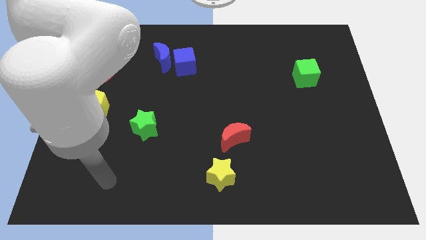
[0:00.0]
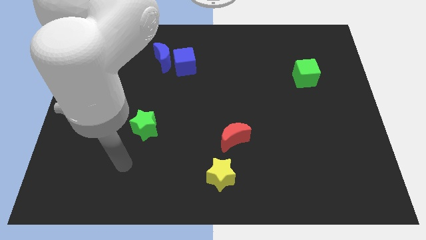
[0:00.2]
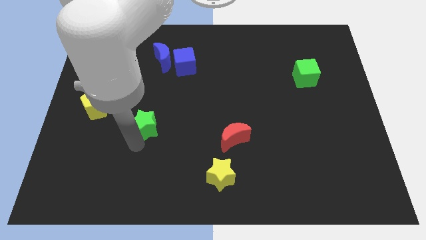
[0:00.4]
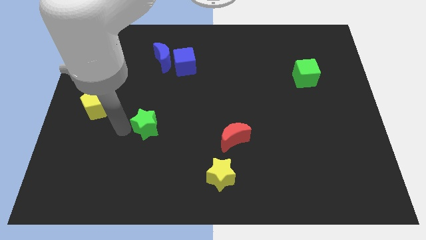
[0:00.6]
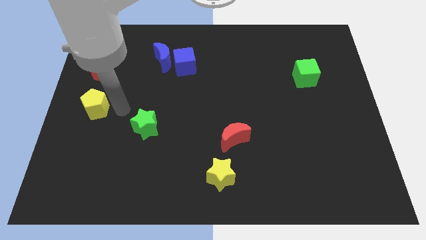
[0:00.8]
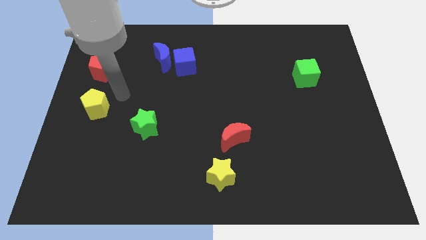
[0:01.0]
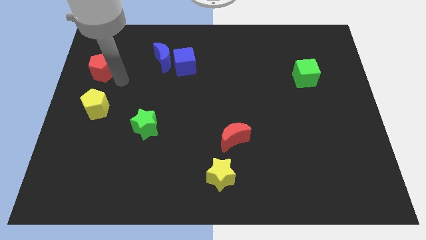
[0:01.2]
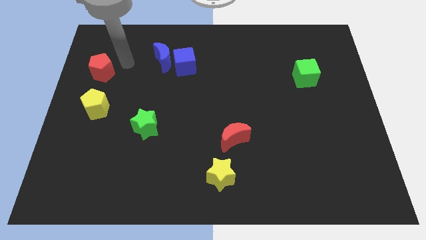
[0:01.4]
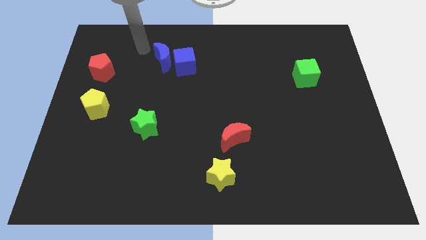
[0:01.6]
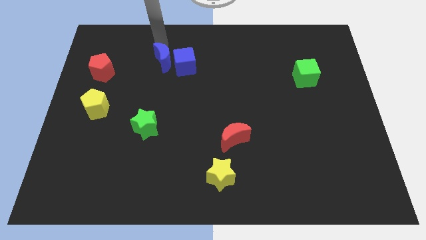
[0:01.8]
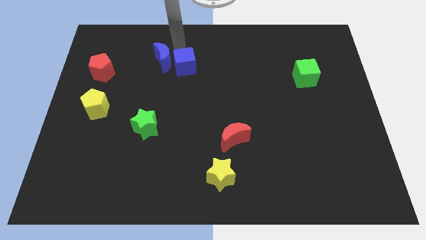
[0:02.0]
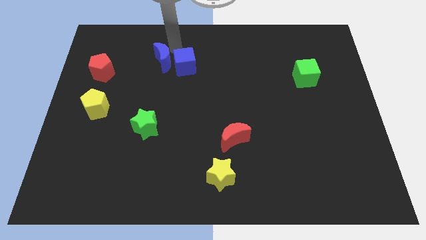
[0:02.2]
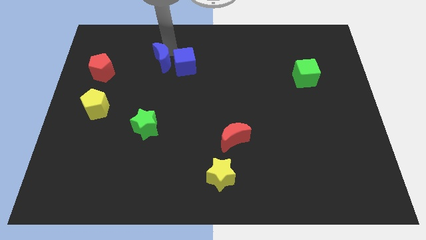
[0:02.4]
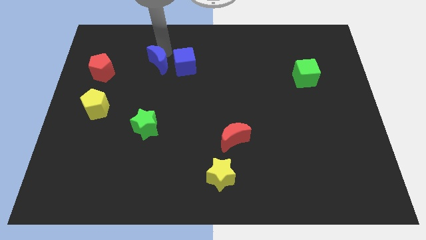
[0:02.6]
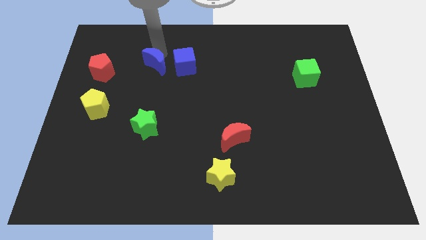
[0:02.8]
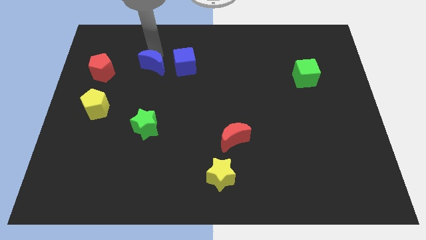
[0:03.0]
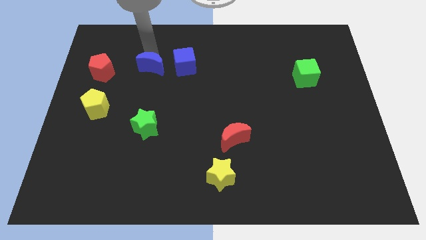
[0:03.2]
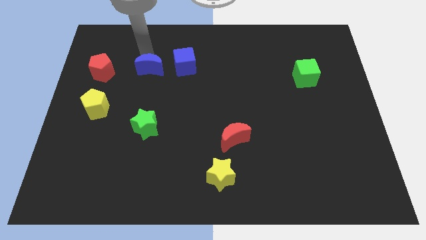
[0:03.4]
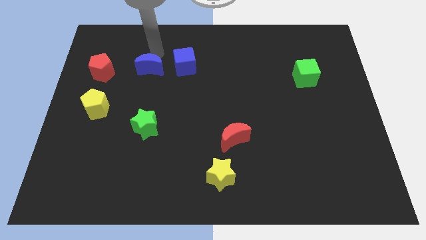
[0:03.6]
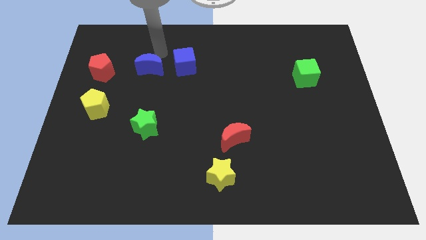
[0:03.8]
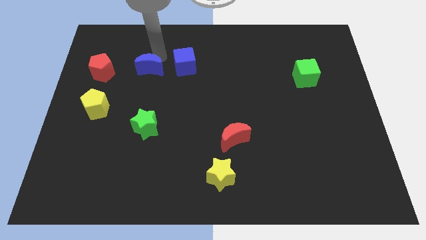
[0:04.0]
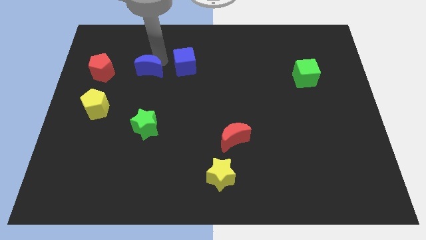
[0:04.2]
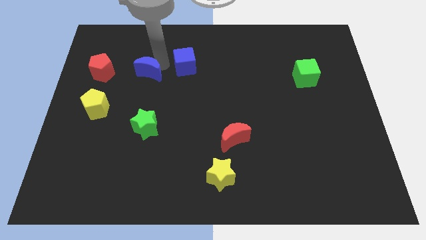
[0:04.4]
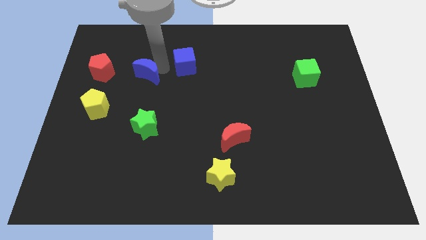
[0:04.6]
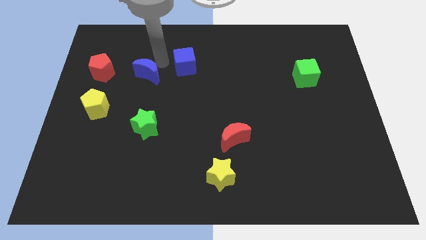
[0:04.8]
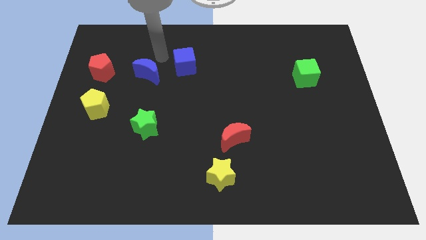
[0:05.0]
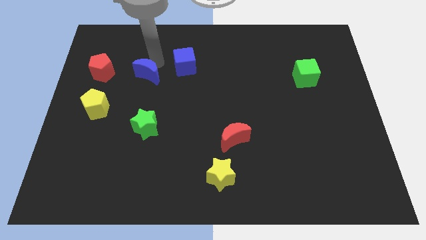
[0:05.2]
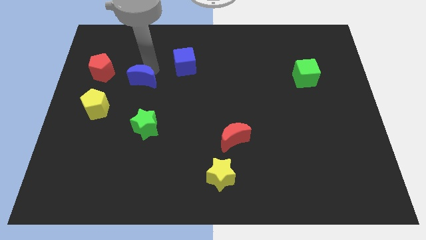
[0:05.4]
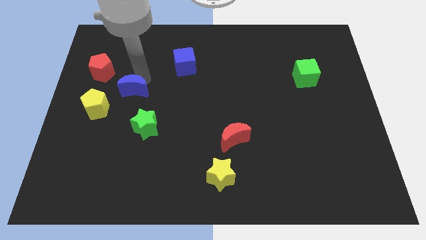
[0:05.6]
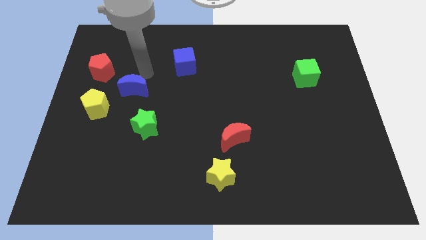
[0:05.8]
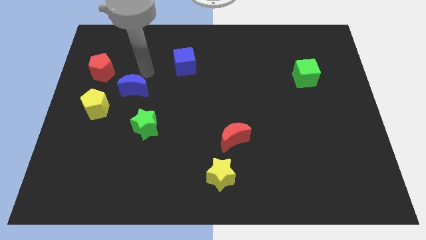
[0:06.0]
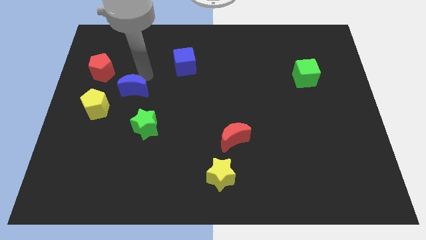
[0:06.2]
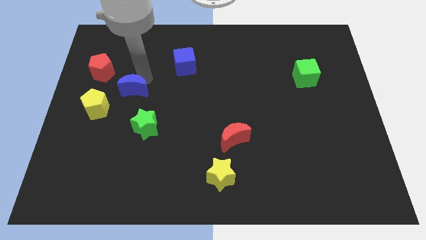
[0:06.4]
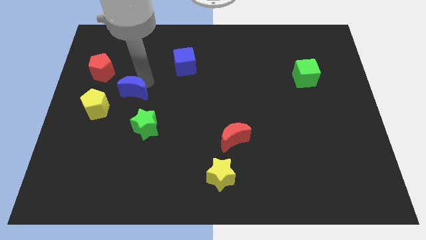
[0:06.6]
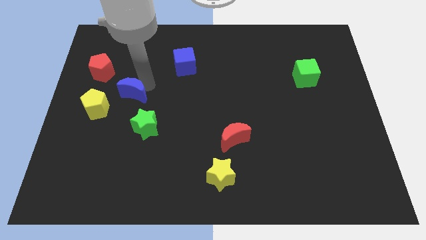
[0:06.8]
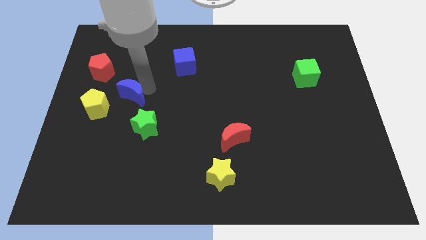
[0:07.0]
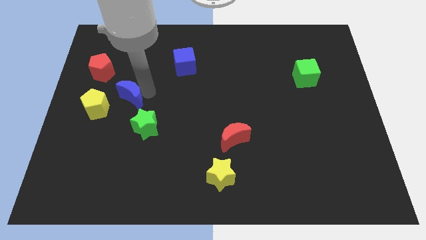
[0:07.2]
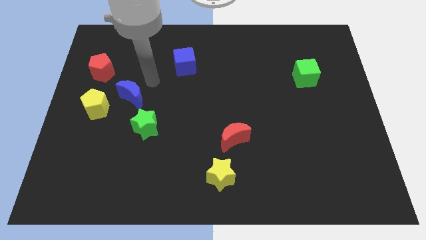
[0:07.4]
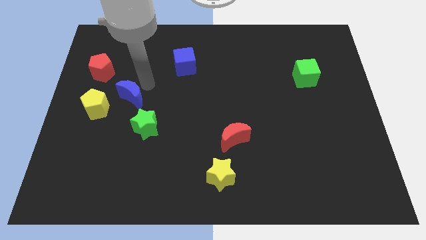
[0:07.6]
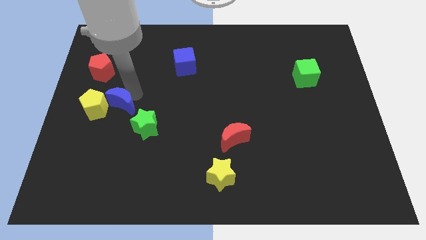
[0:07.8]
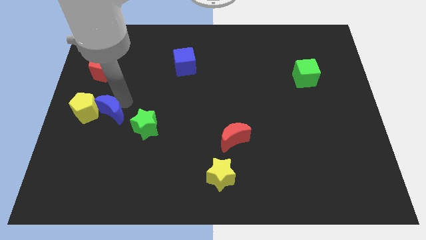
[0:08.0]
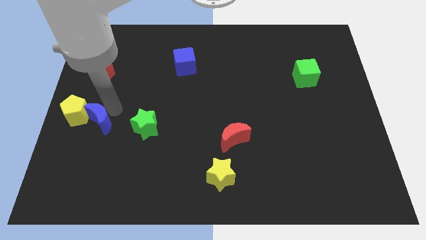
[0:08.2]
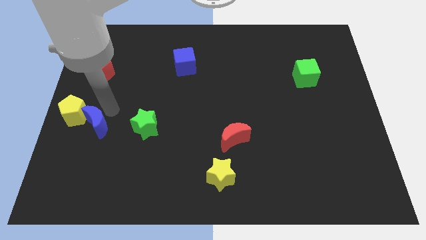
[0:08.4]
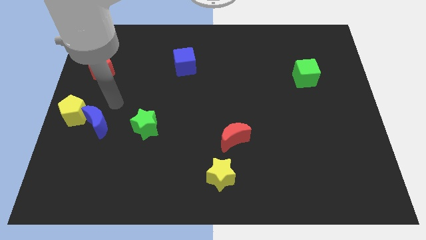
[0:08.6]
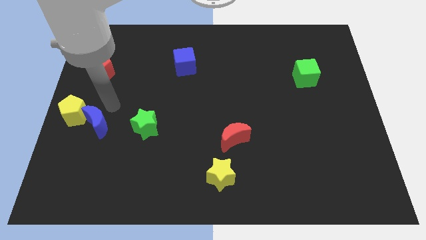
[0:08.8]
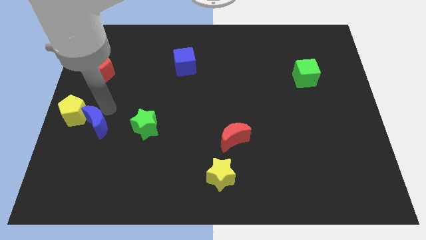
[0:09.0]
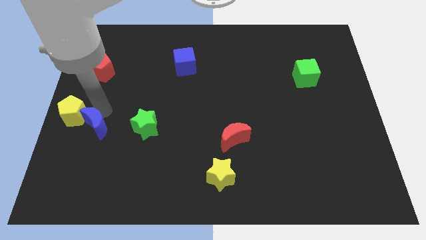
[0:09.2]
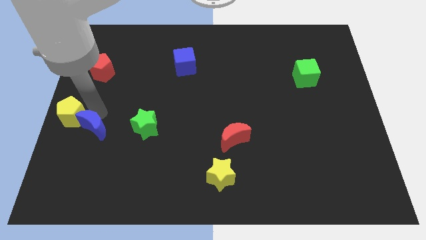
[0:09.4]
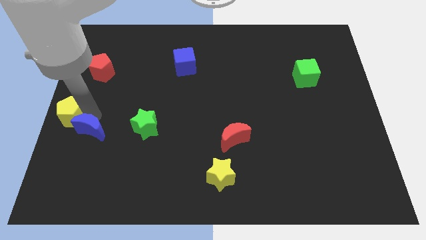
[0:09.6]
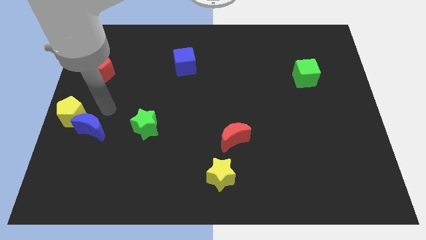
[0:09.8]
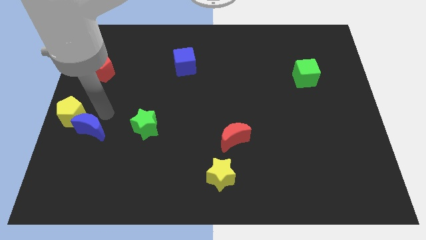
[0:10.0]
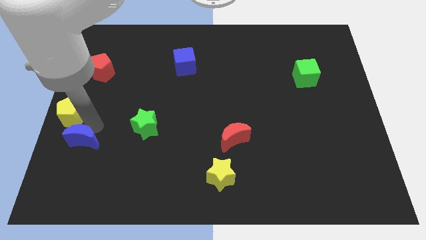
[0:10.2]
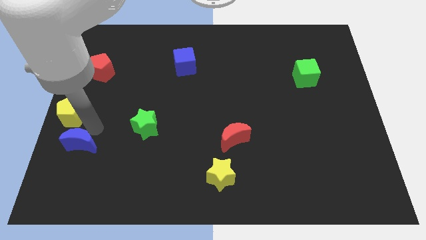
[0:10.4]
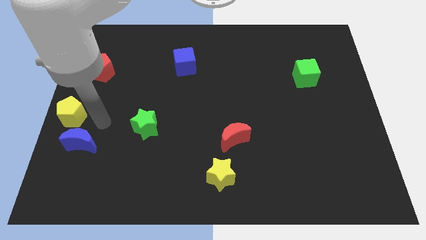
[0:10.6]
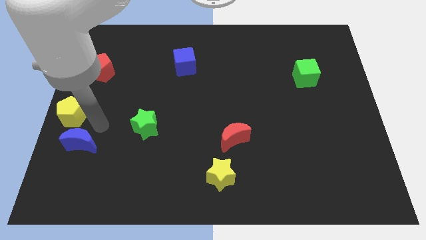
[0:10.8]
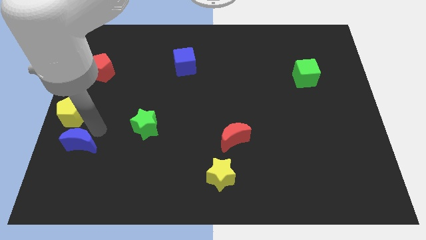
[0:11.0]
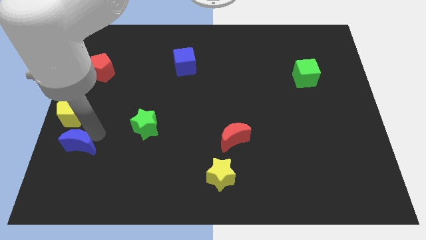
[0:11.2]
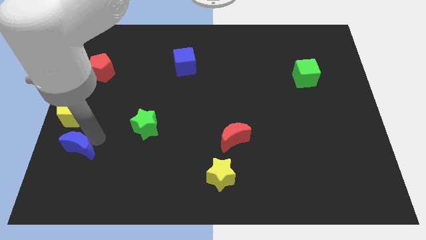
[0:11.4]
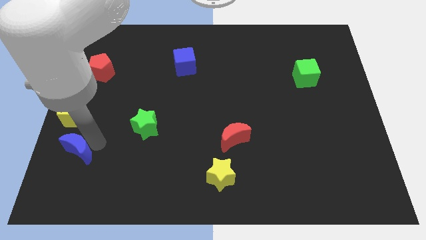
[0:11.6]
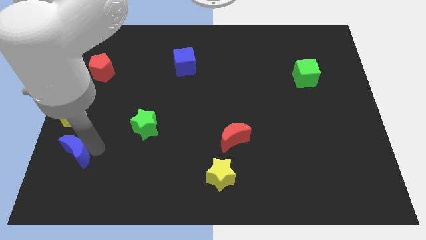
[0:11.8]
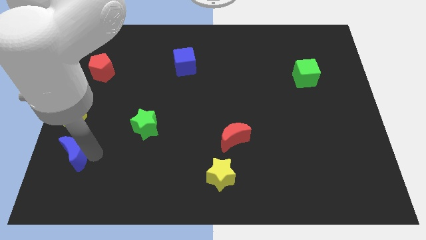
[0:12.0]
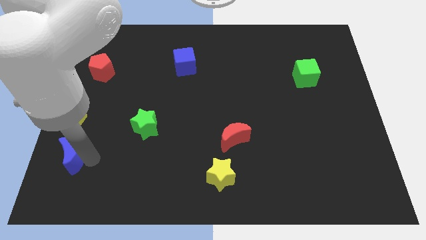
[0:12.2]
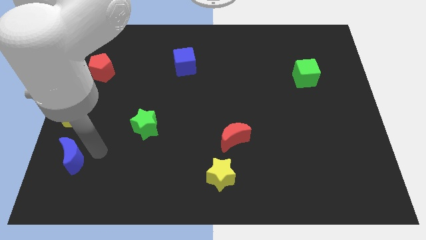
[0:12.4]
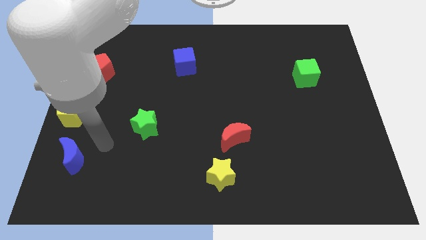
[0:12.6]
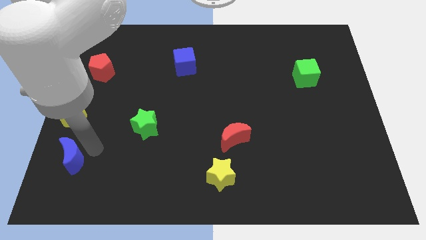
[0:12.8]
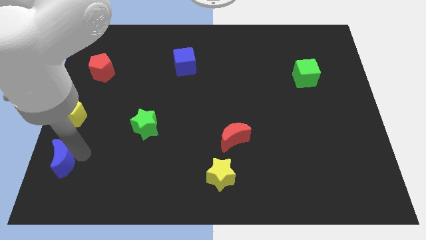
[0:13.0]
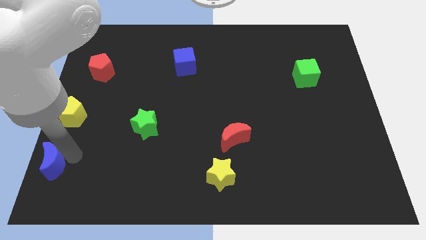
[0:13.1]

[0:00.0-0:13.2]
move the blue moon to the bottom left corner
